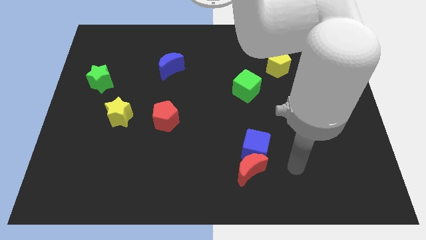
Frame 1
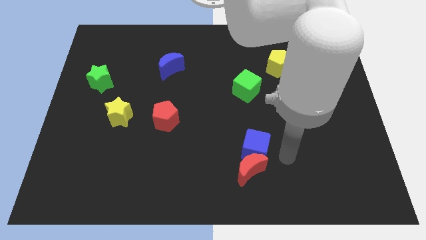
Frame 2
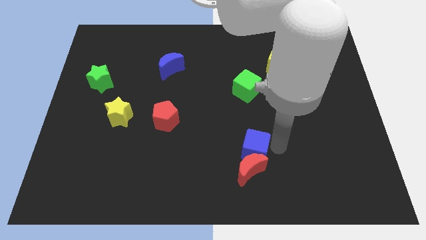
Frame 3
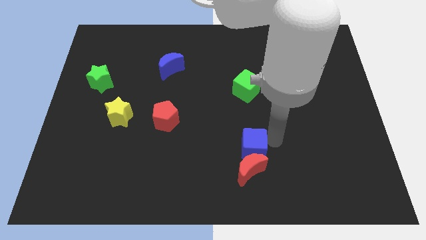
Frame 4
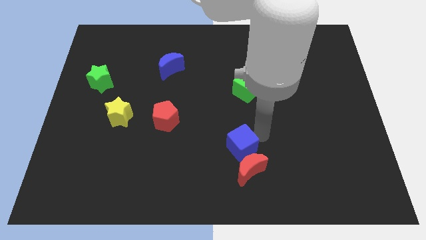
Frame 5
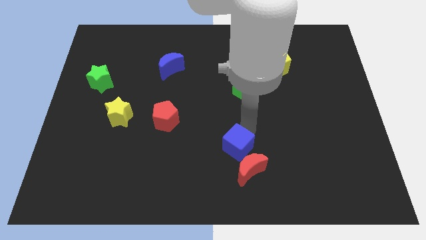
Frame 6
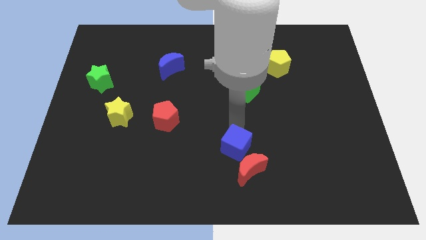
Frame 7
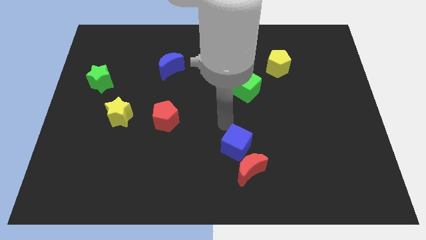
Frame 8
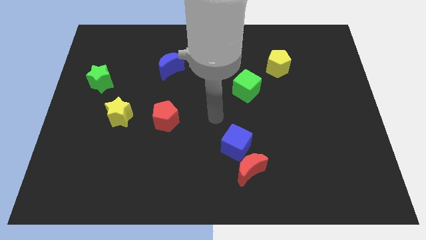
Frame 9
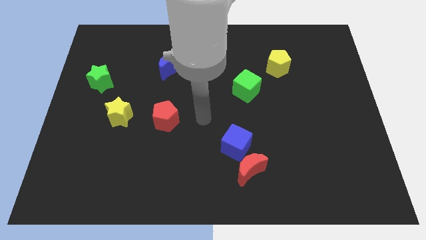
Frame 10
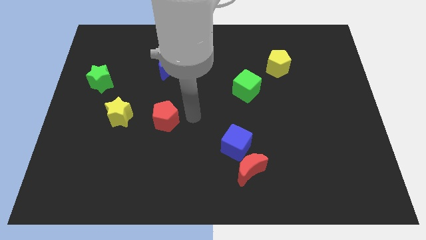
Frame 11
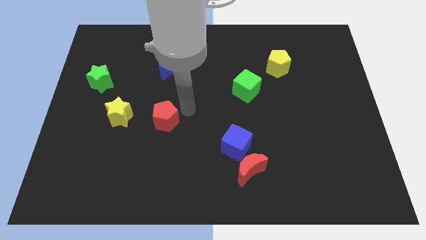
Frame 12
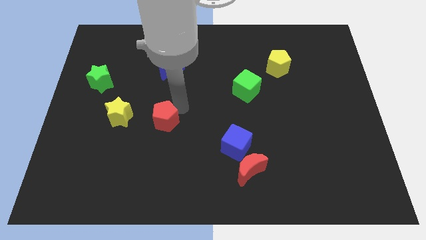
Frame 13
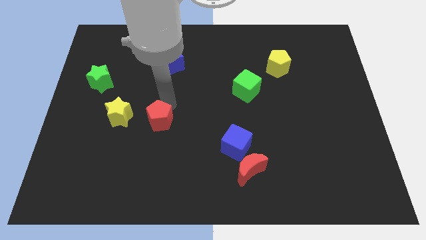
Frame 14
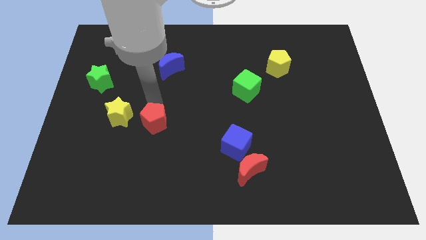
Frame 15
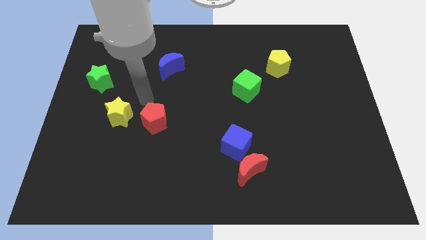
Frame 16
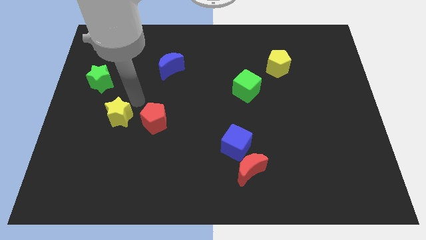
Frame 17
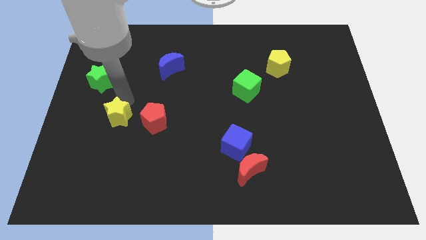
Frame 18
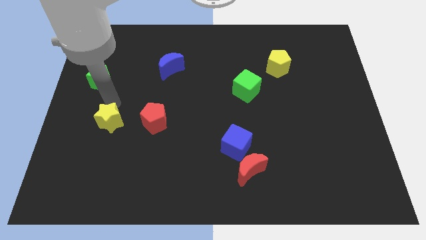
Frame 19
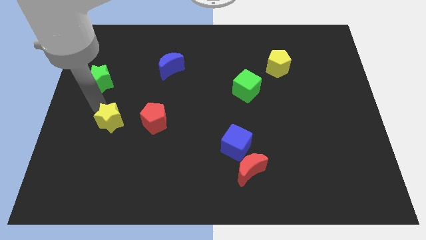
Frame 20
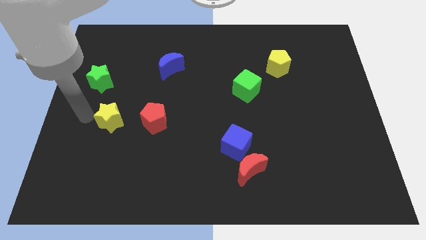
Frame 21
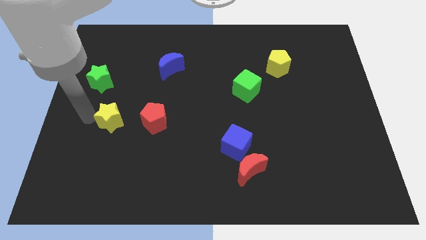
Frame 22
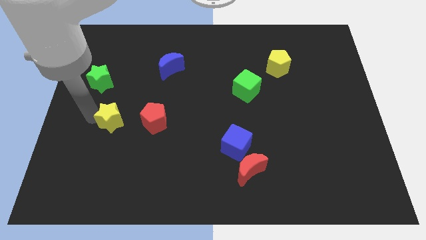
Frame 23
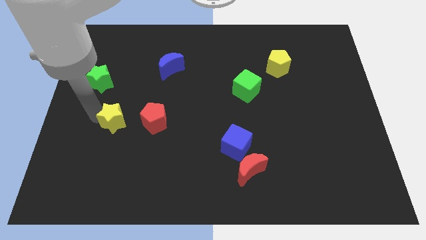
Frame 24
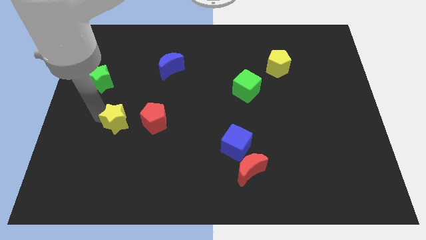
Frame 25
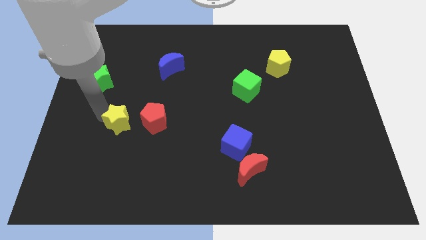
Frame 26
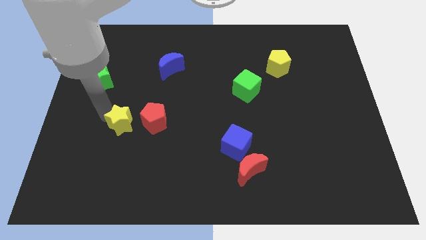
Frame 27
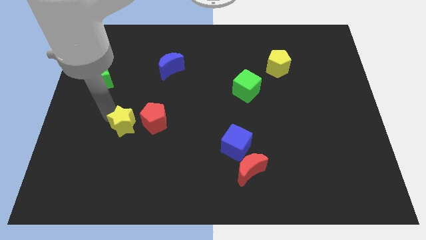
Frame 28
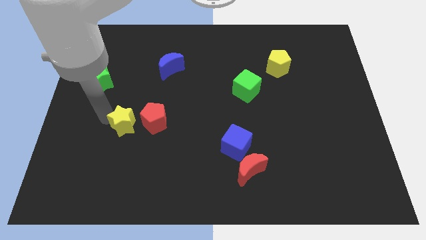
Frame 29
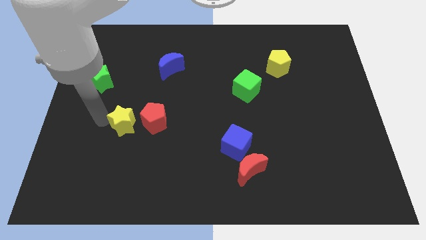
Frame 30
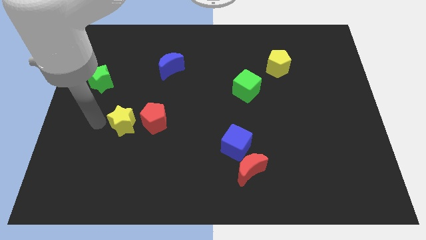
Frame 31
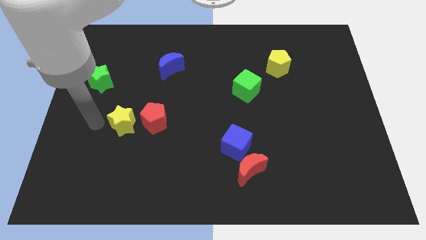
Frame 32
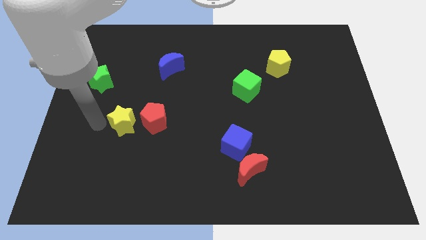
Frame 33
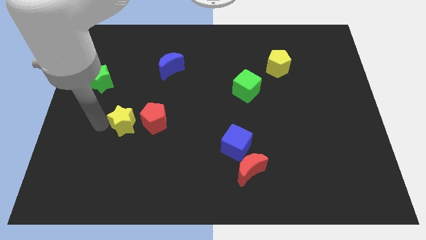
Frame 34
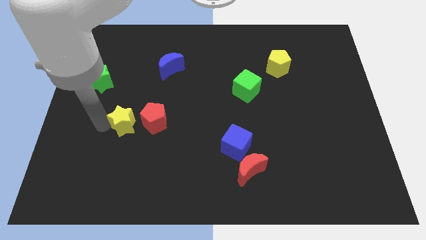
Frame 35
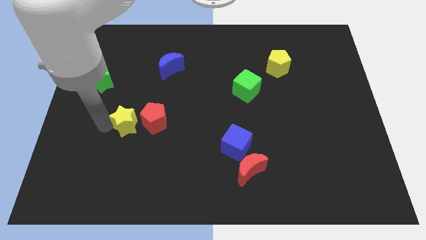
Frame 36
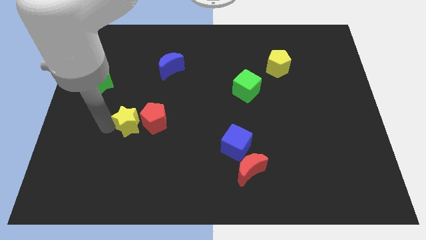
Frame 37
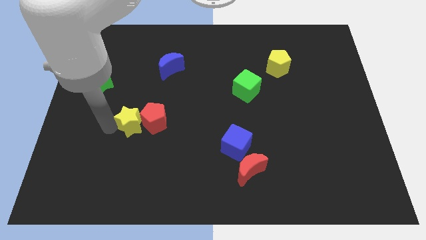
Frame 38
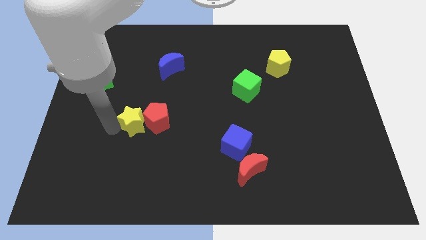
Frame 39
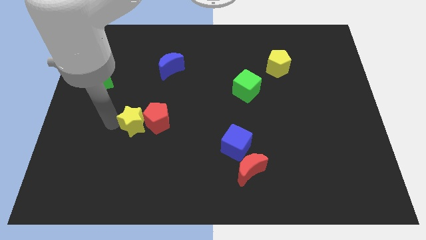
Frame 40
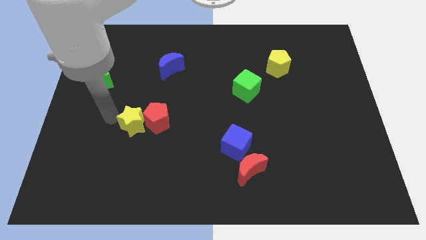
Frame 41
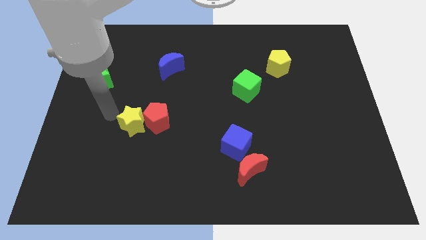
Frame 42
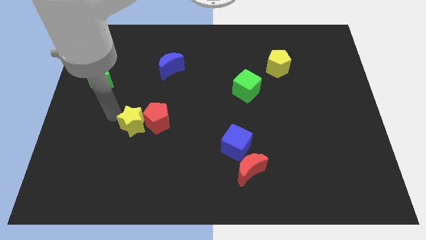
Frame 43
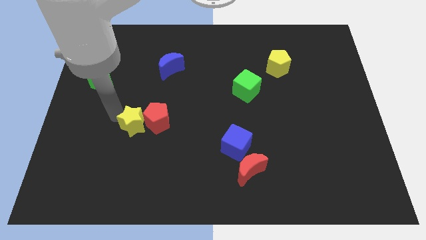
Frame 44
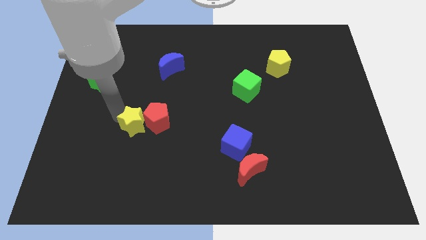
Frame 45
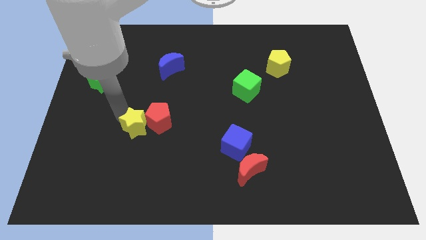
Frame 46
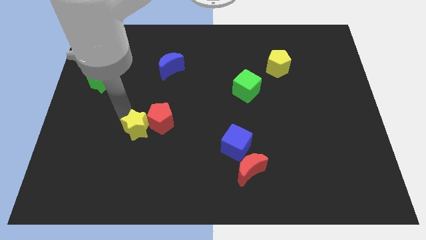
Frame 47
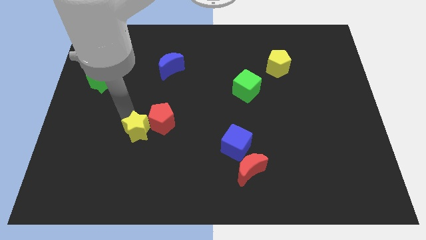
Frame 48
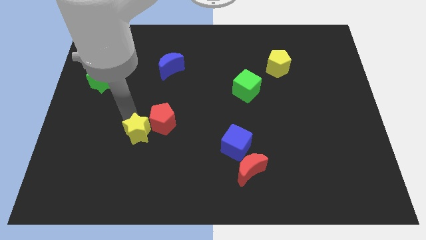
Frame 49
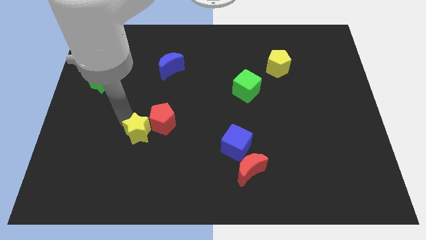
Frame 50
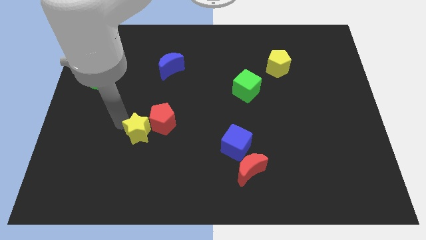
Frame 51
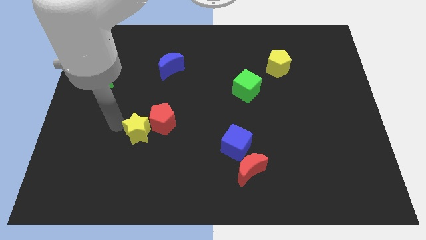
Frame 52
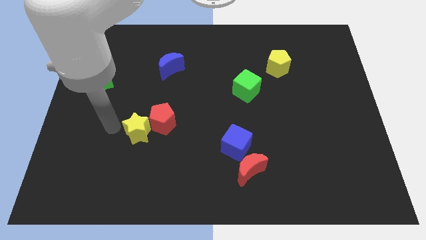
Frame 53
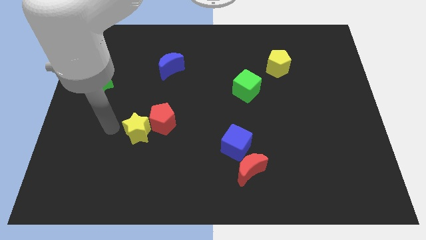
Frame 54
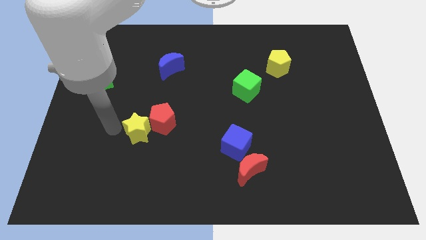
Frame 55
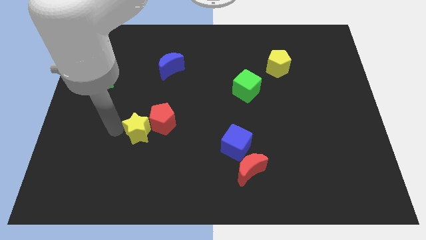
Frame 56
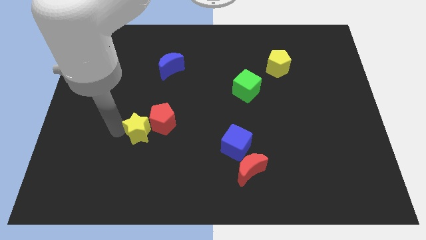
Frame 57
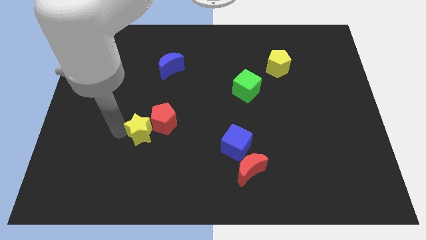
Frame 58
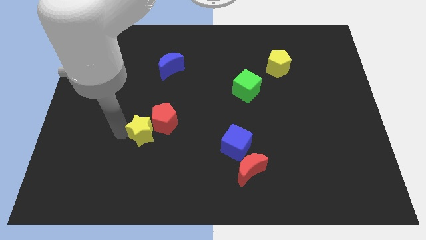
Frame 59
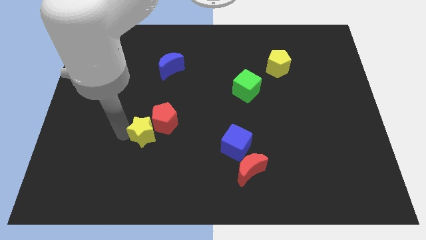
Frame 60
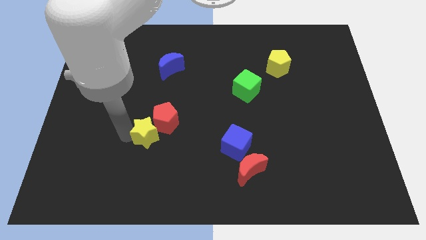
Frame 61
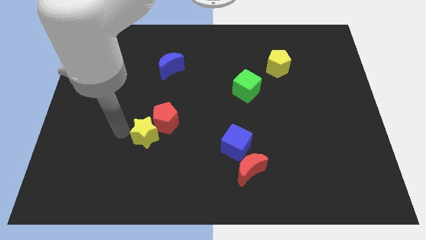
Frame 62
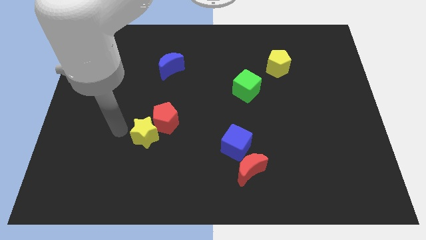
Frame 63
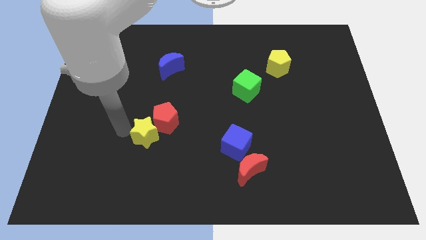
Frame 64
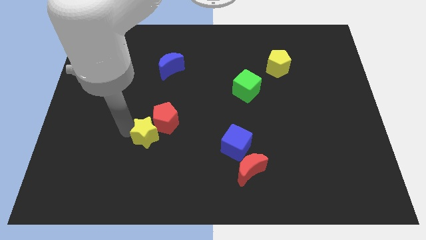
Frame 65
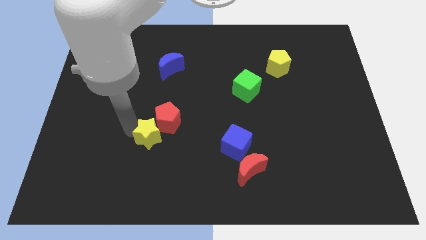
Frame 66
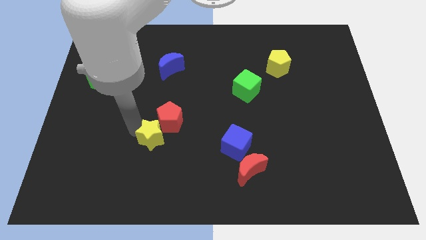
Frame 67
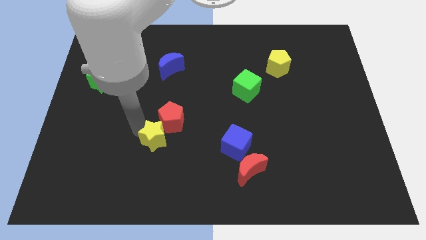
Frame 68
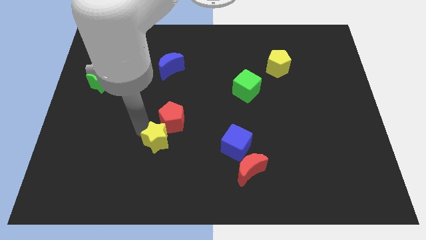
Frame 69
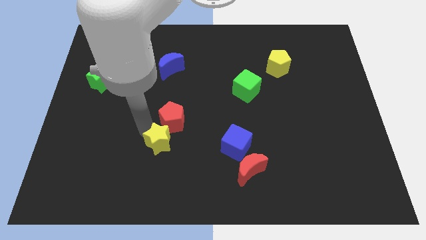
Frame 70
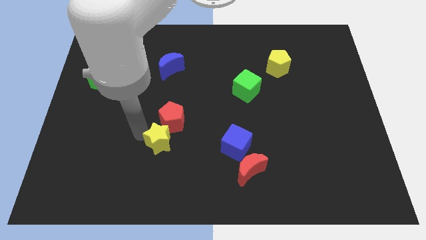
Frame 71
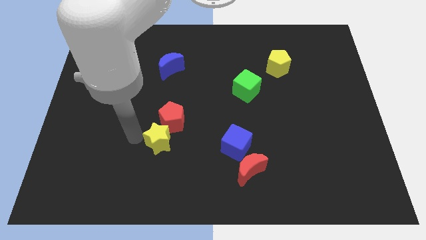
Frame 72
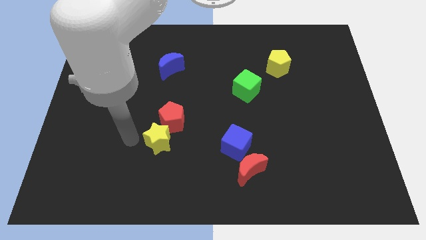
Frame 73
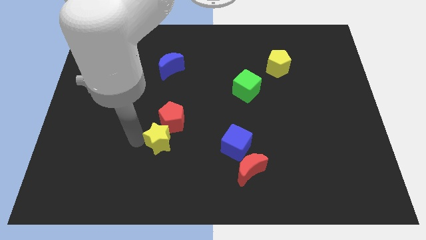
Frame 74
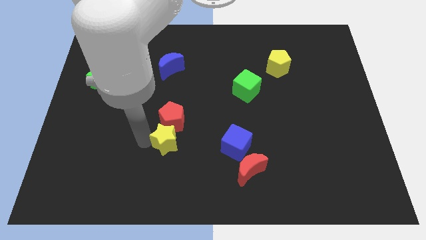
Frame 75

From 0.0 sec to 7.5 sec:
push the yellow star to the left side of the blue cube

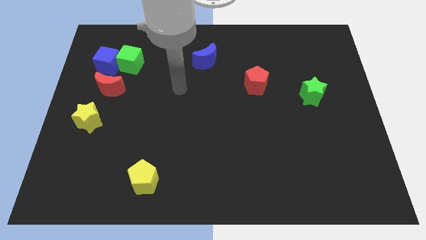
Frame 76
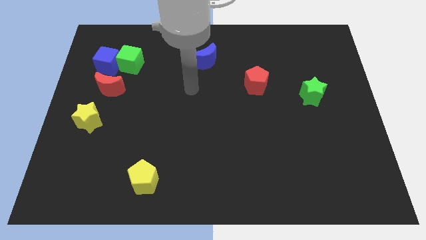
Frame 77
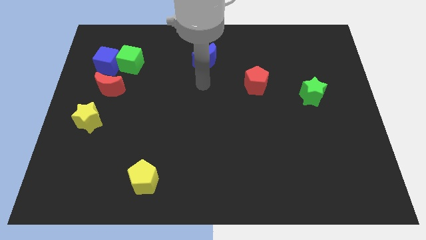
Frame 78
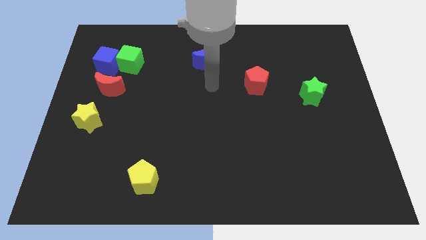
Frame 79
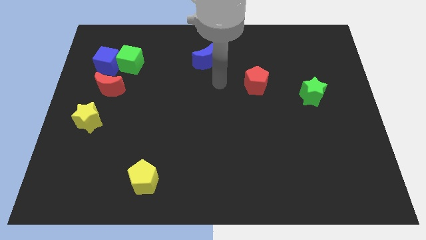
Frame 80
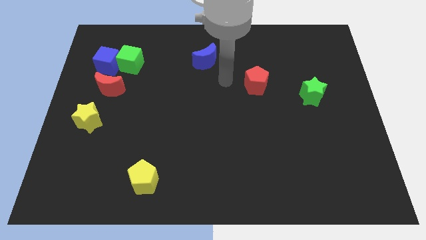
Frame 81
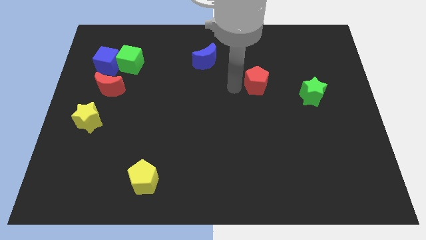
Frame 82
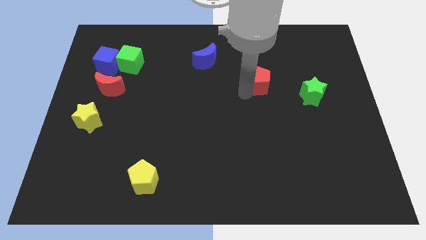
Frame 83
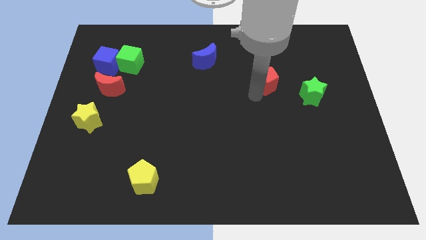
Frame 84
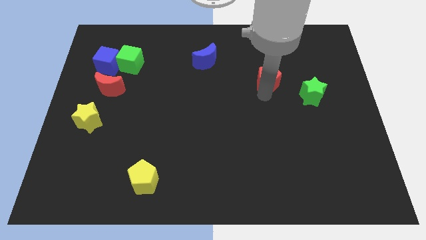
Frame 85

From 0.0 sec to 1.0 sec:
push the green star to the bottom right side of the red pentagon
